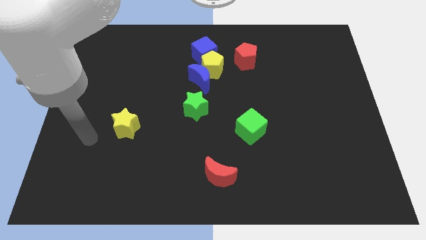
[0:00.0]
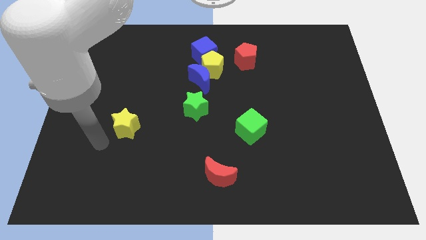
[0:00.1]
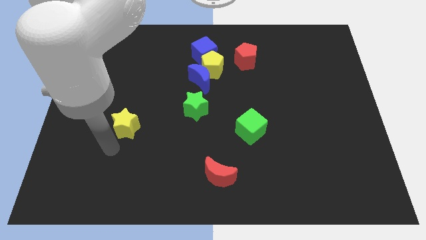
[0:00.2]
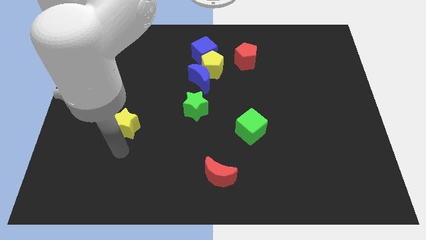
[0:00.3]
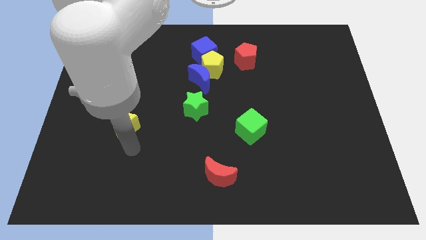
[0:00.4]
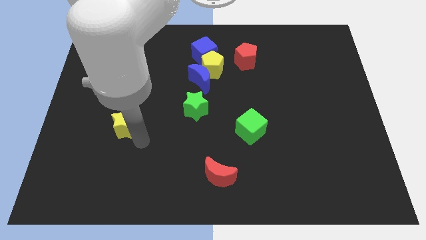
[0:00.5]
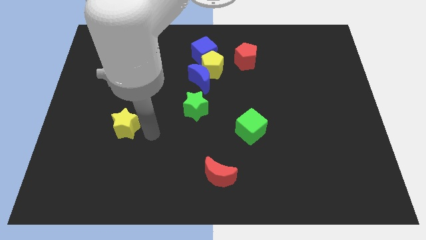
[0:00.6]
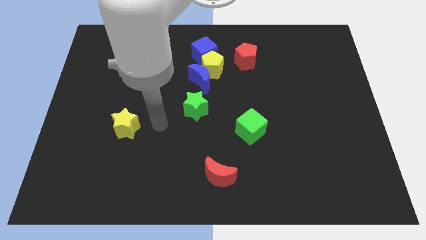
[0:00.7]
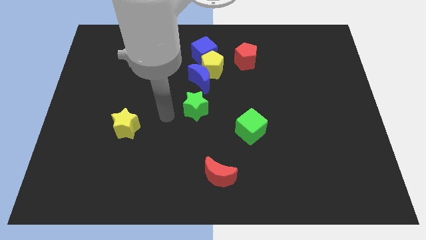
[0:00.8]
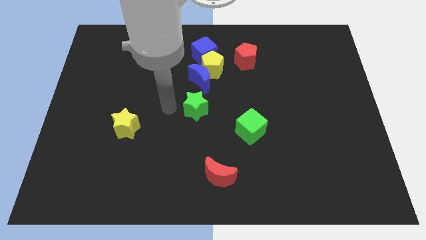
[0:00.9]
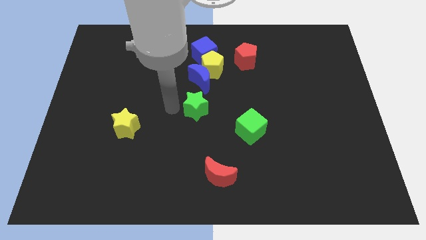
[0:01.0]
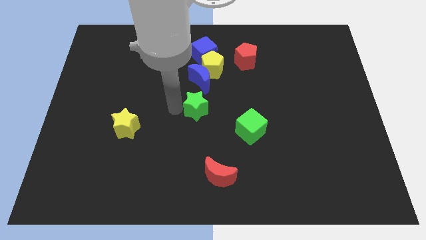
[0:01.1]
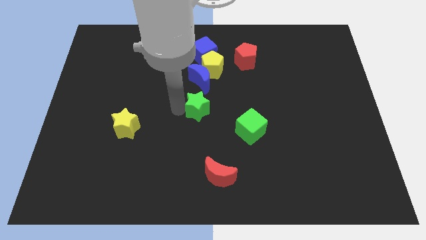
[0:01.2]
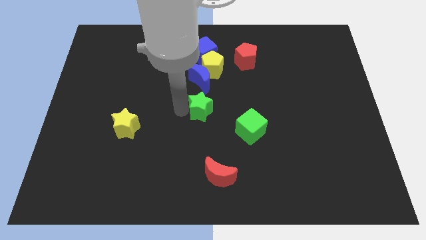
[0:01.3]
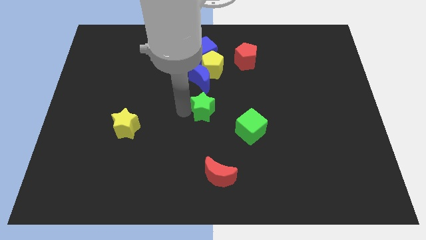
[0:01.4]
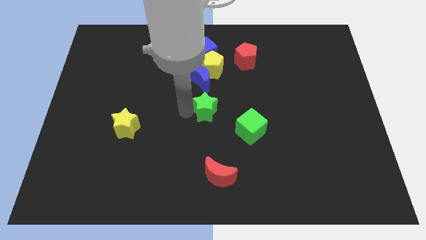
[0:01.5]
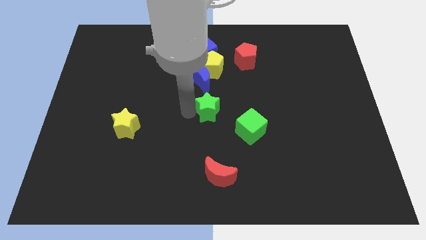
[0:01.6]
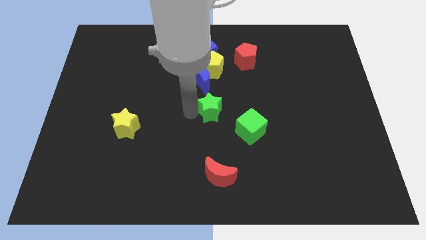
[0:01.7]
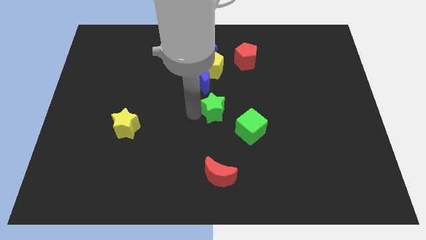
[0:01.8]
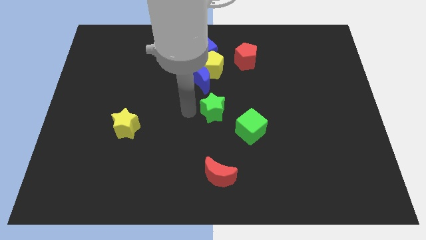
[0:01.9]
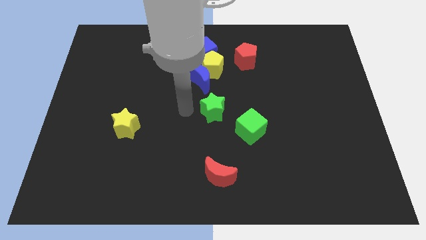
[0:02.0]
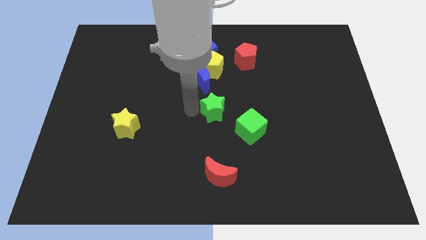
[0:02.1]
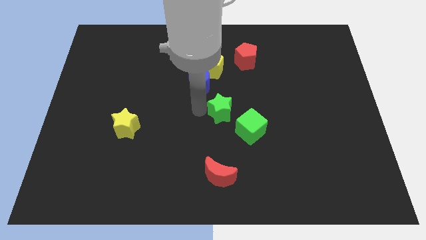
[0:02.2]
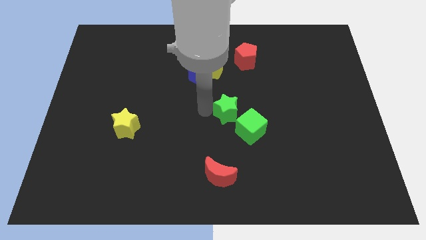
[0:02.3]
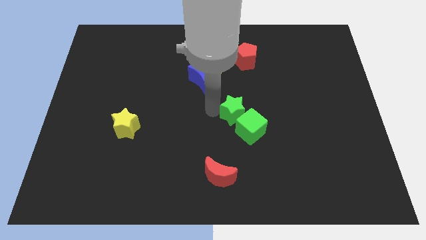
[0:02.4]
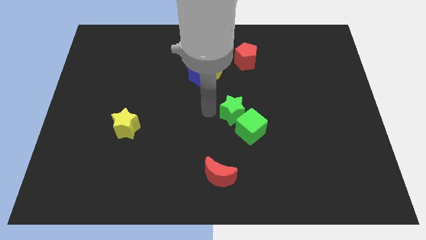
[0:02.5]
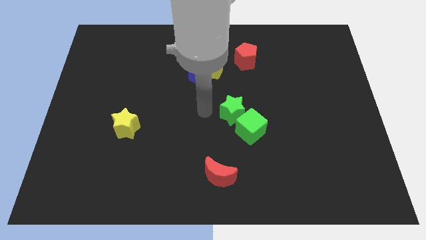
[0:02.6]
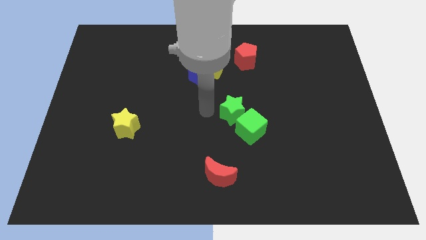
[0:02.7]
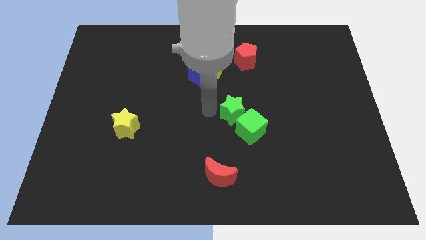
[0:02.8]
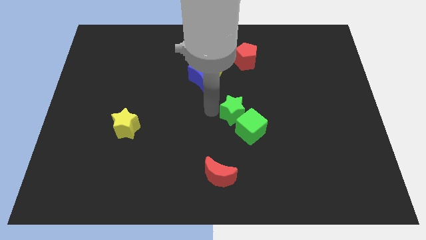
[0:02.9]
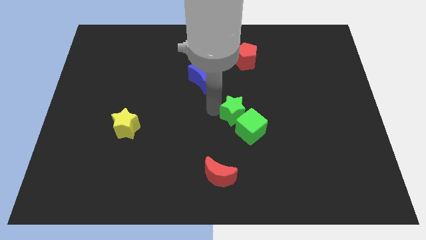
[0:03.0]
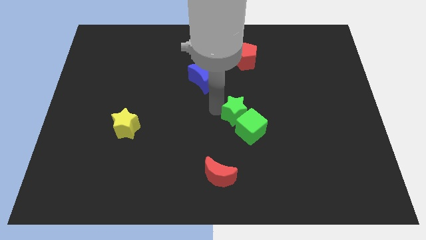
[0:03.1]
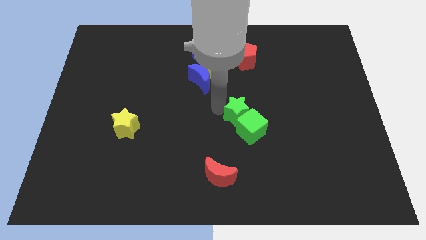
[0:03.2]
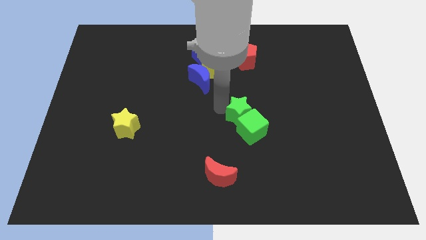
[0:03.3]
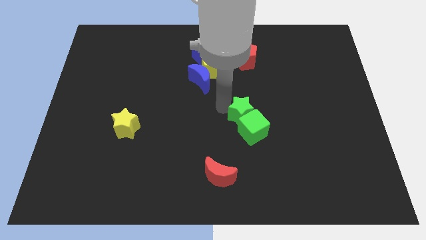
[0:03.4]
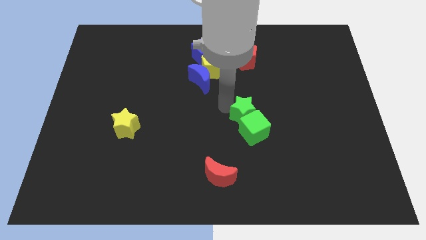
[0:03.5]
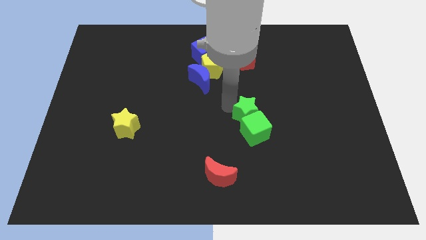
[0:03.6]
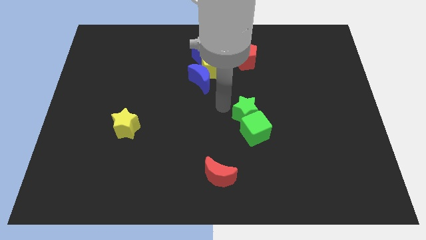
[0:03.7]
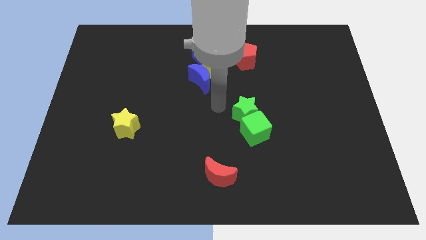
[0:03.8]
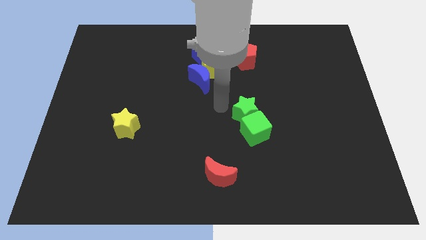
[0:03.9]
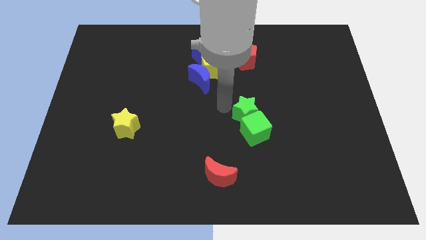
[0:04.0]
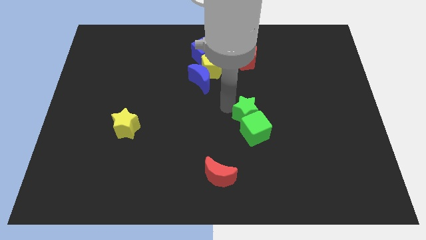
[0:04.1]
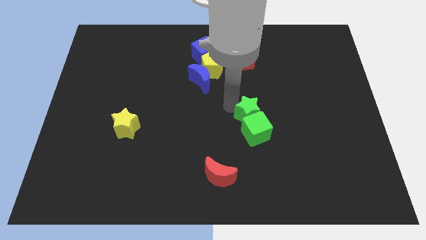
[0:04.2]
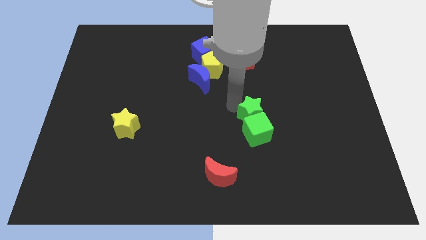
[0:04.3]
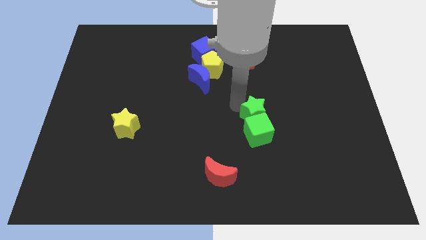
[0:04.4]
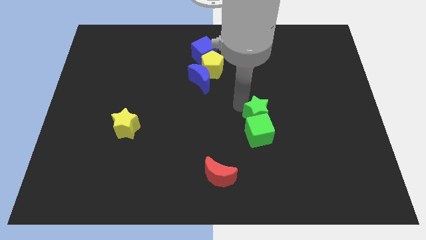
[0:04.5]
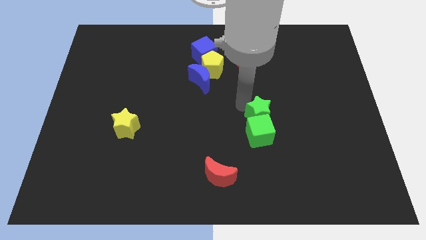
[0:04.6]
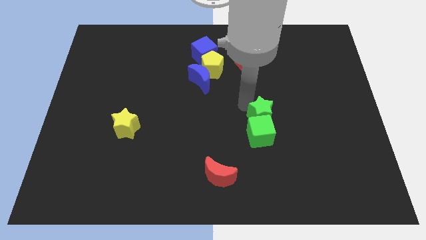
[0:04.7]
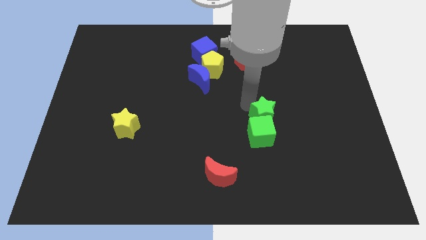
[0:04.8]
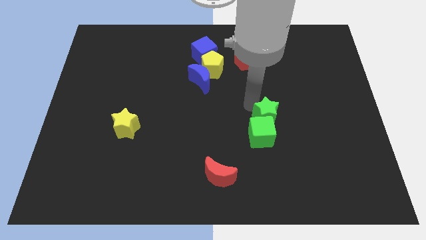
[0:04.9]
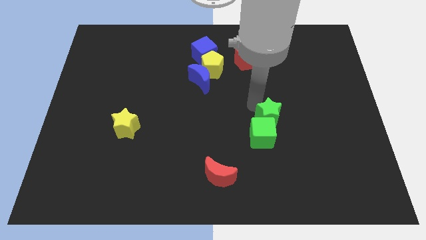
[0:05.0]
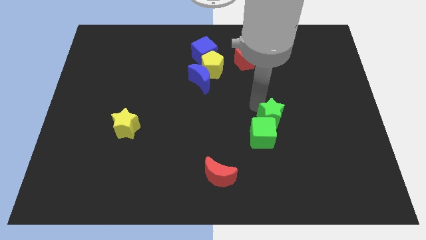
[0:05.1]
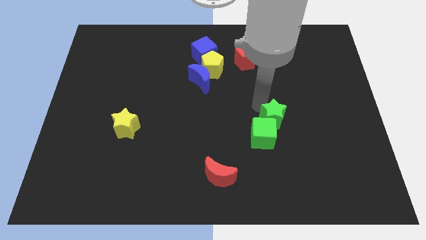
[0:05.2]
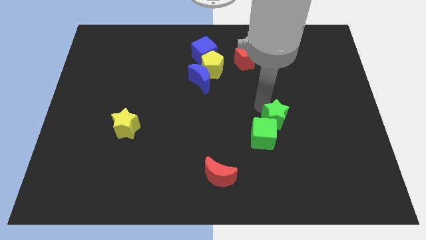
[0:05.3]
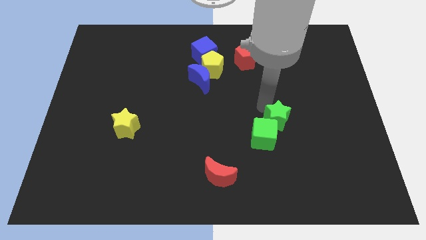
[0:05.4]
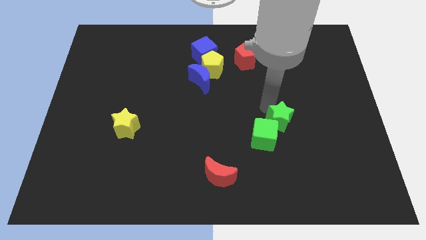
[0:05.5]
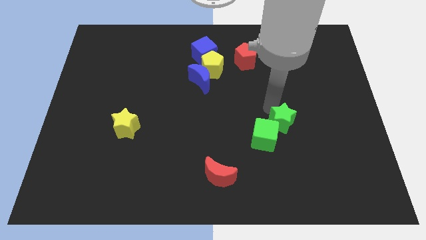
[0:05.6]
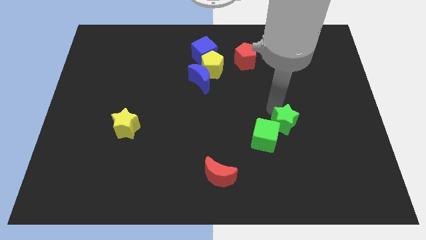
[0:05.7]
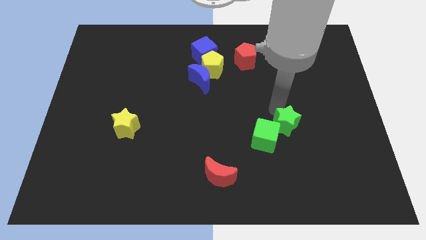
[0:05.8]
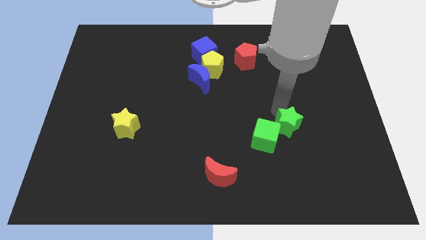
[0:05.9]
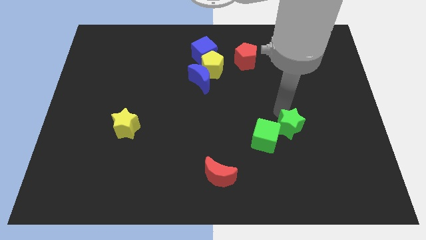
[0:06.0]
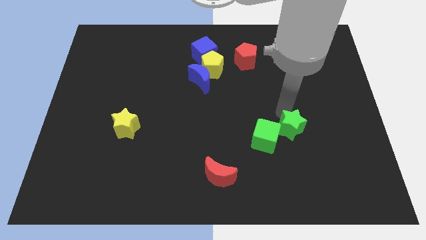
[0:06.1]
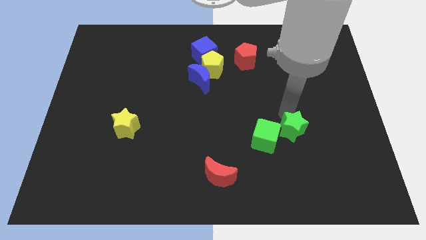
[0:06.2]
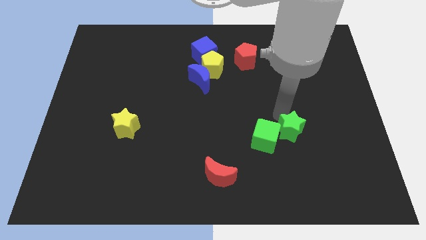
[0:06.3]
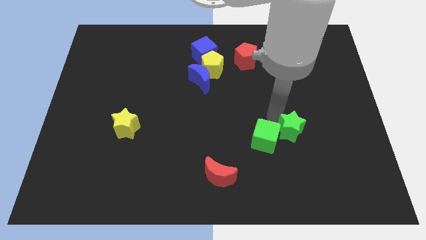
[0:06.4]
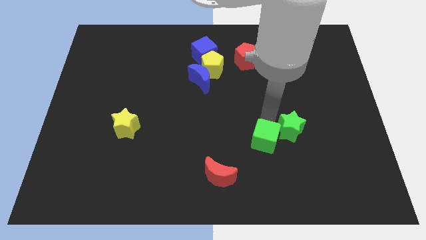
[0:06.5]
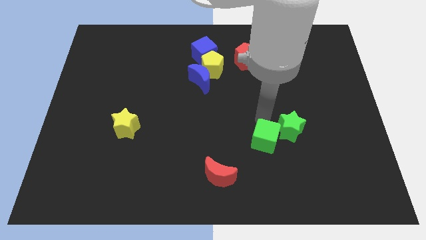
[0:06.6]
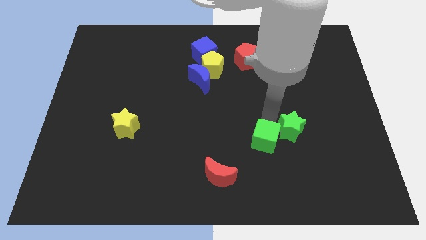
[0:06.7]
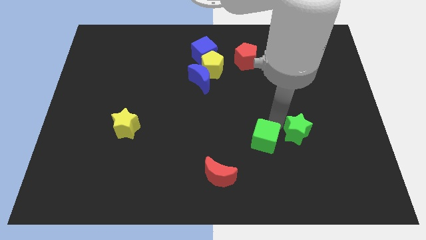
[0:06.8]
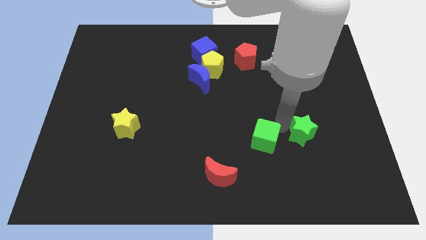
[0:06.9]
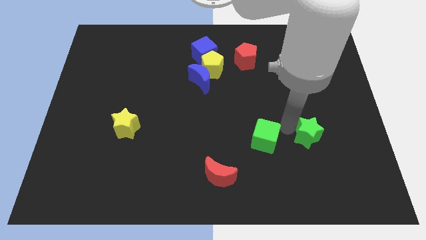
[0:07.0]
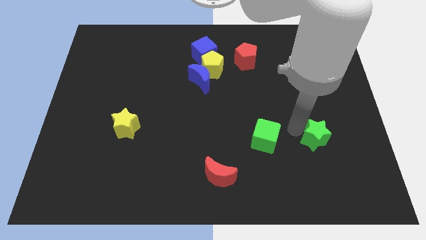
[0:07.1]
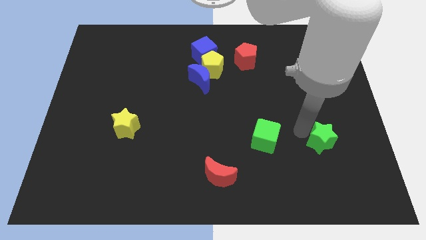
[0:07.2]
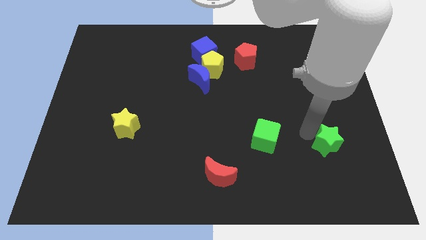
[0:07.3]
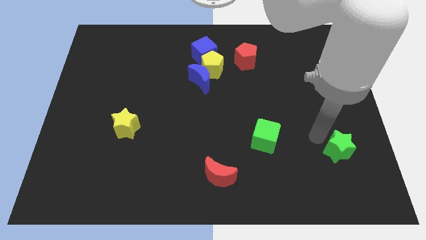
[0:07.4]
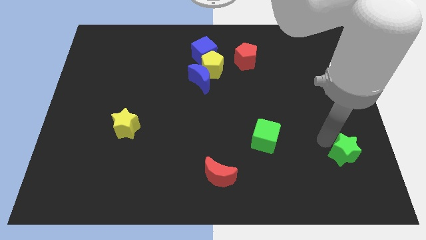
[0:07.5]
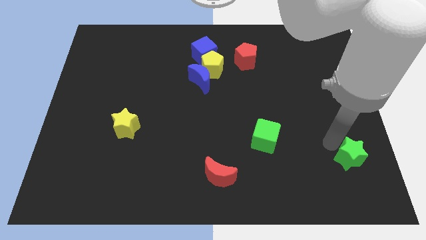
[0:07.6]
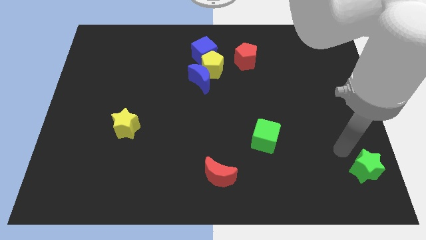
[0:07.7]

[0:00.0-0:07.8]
move the green star to the lower right corner

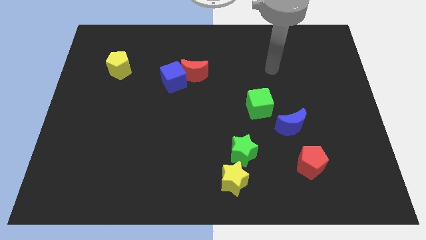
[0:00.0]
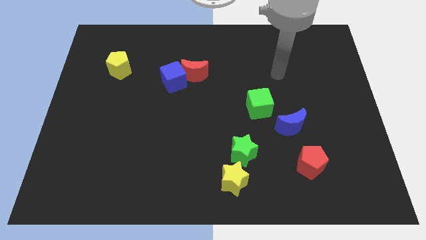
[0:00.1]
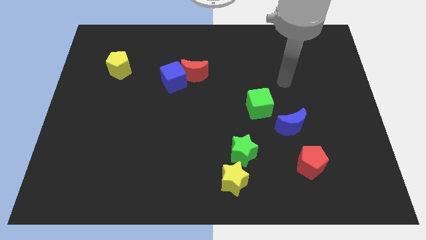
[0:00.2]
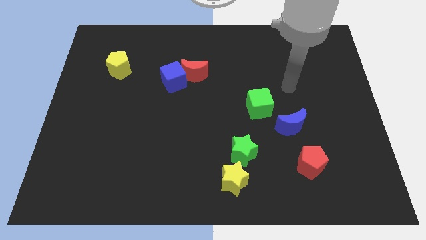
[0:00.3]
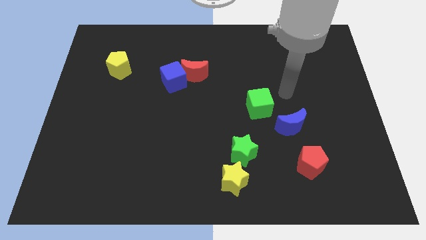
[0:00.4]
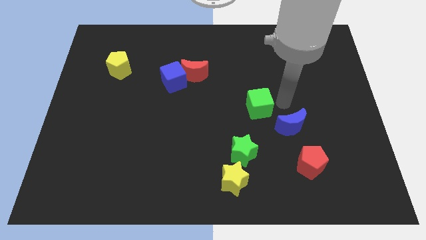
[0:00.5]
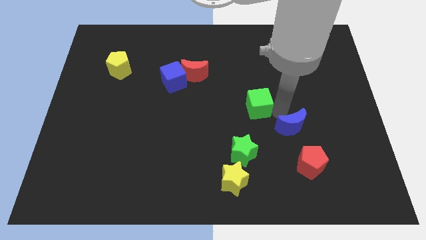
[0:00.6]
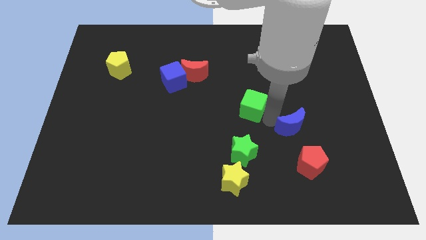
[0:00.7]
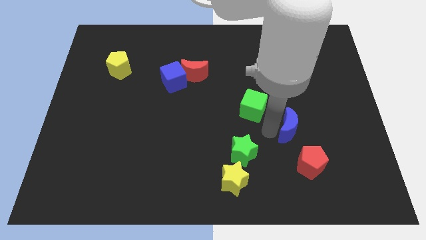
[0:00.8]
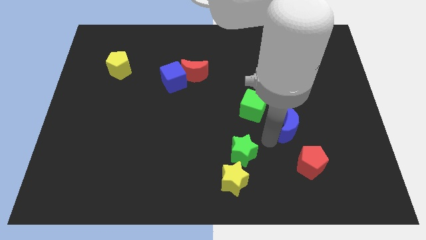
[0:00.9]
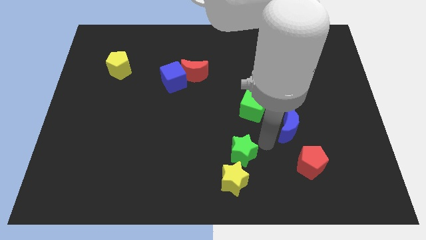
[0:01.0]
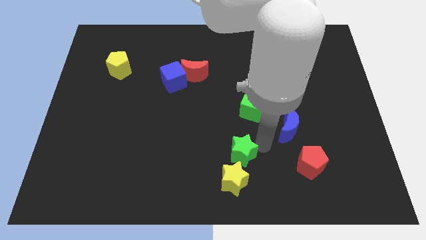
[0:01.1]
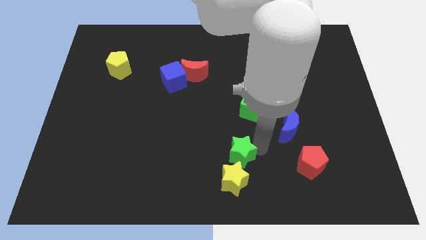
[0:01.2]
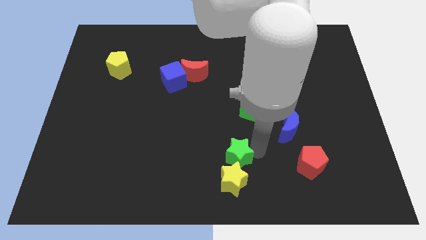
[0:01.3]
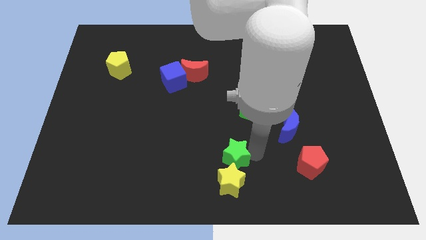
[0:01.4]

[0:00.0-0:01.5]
slide the green star to the bottom side
